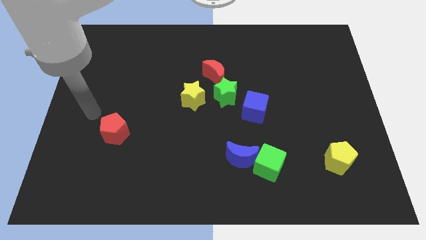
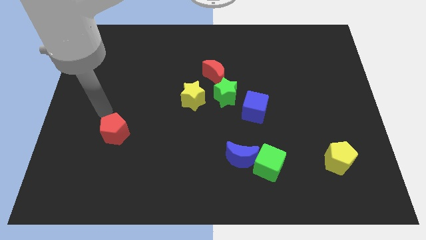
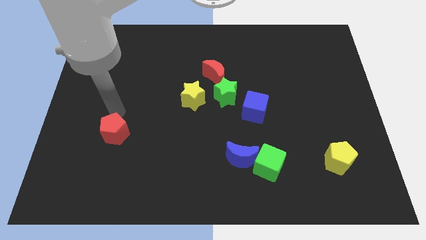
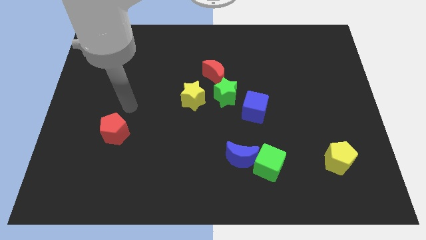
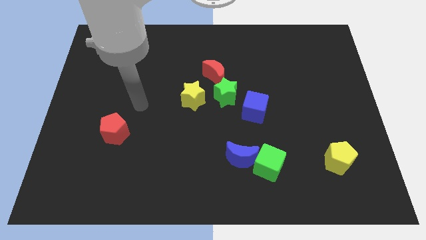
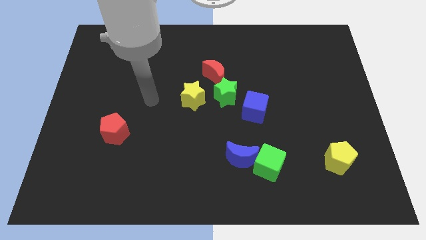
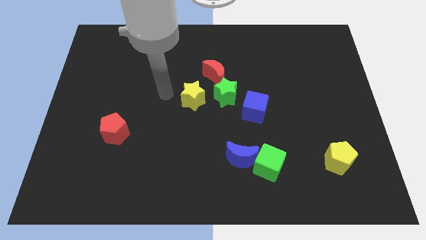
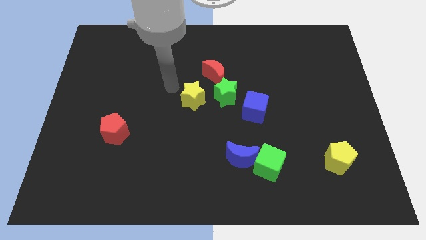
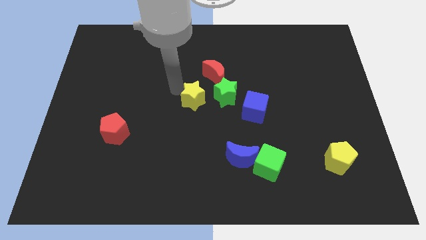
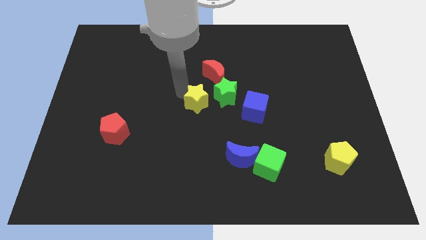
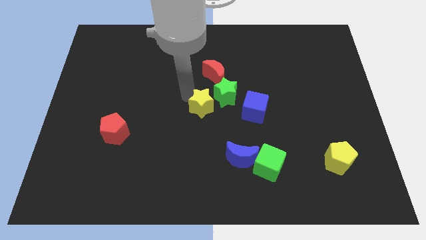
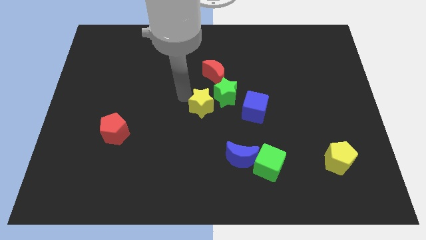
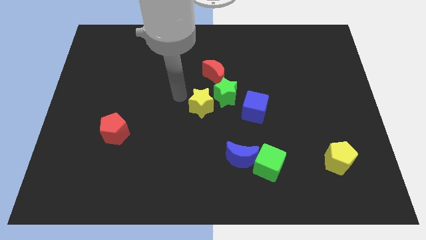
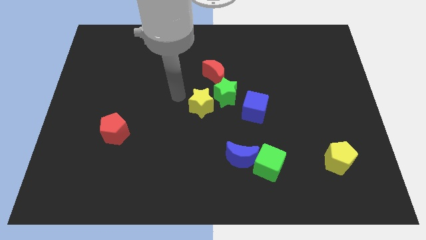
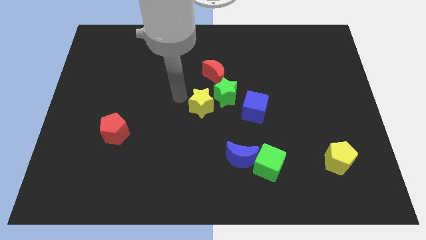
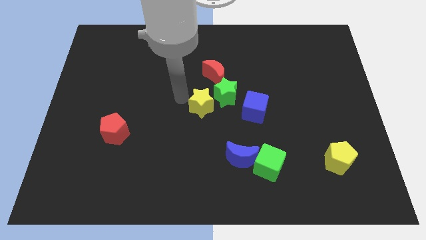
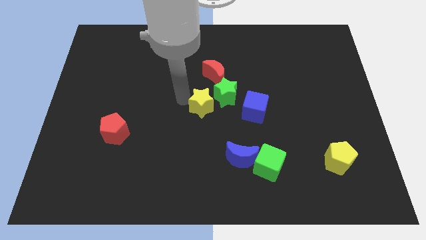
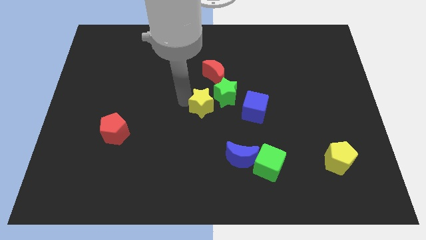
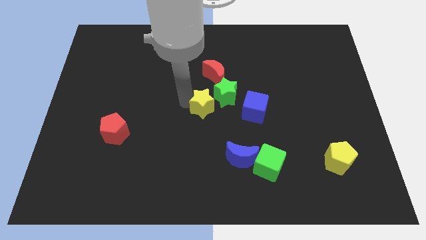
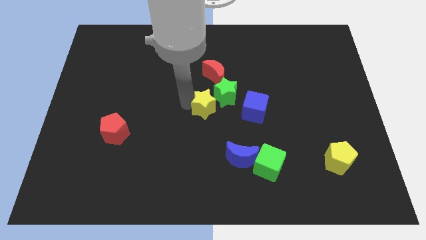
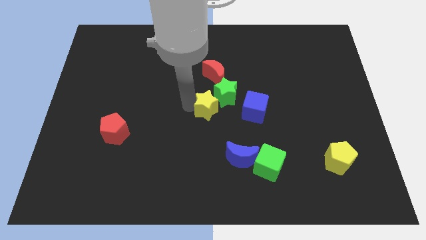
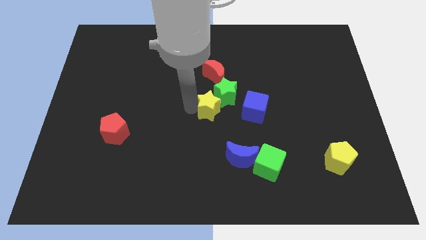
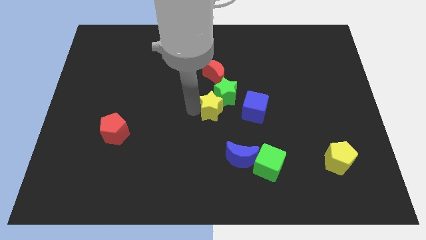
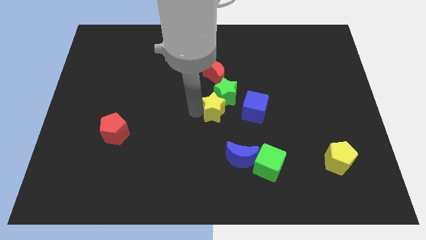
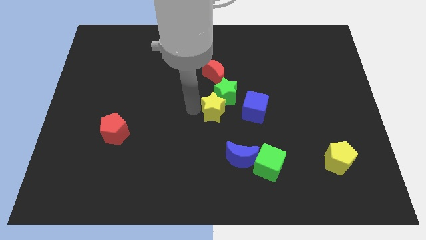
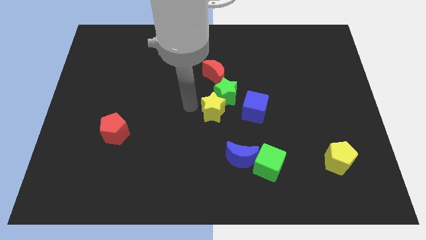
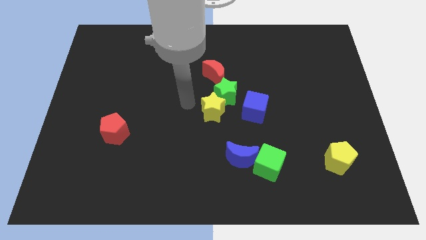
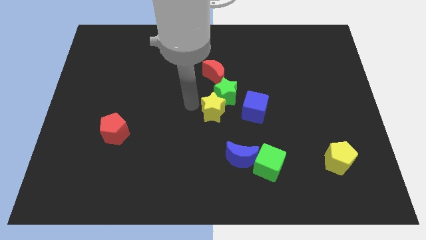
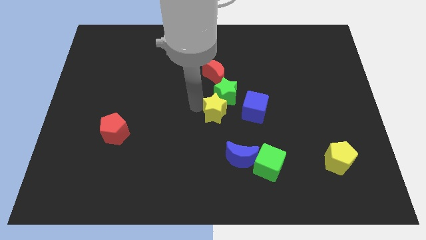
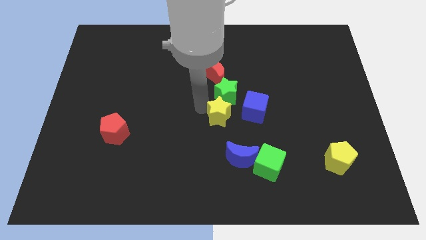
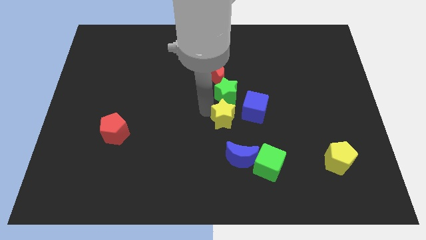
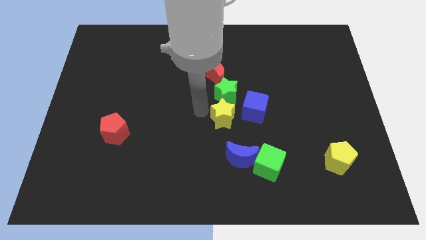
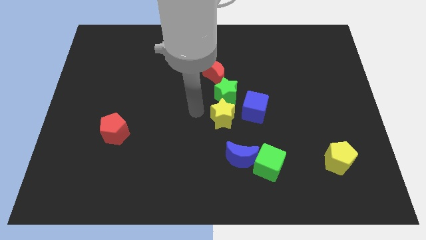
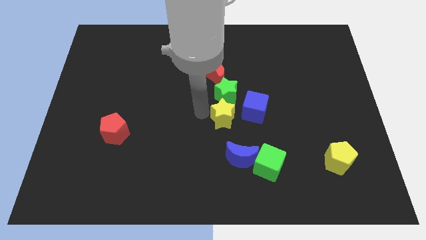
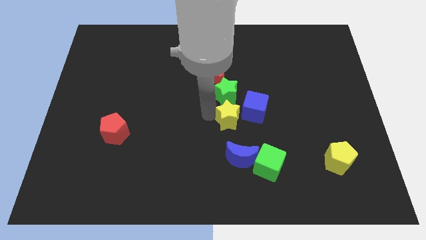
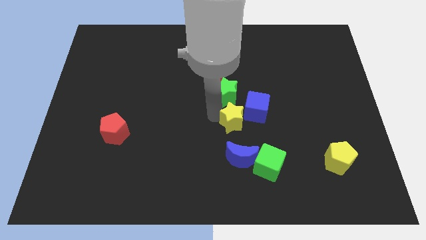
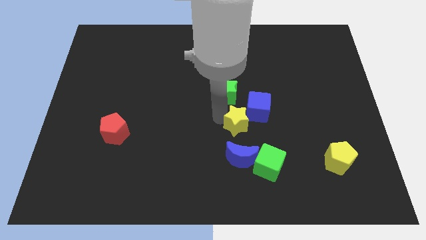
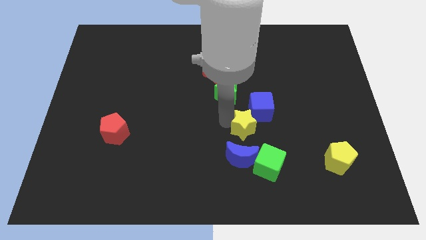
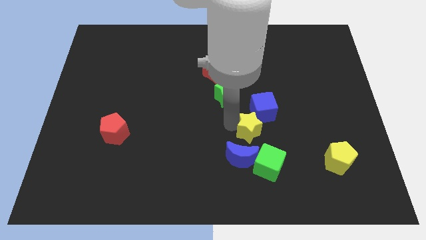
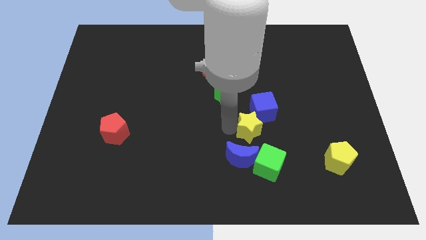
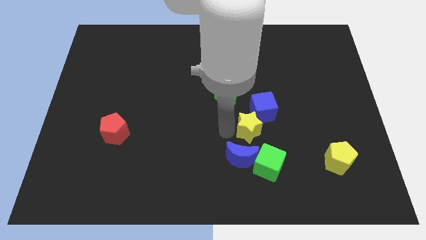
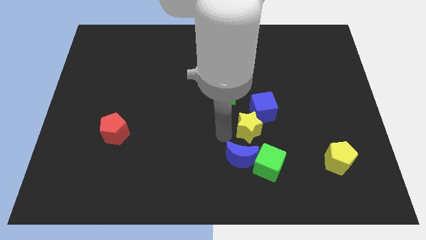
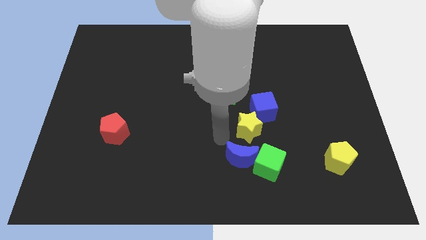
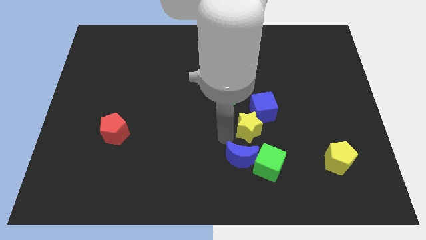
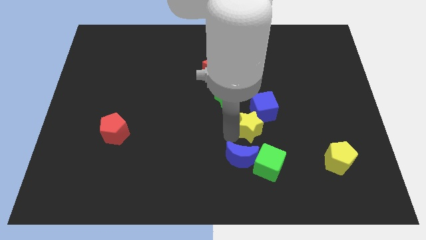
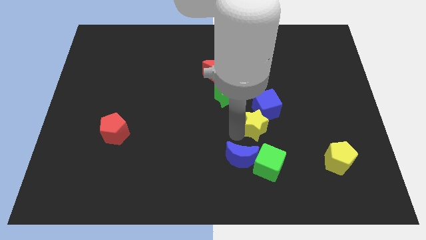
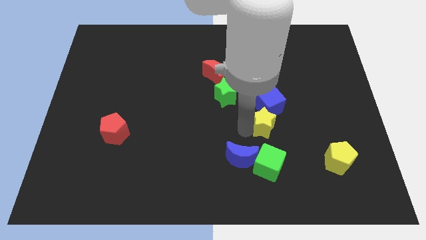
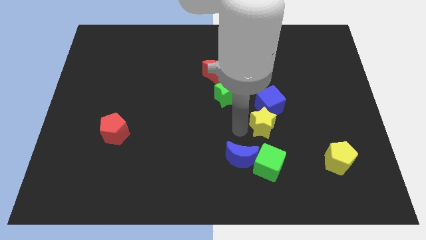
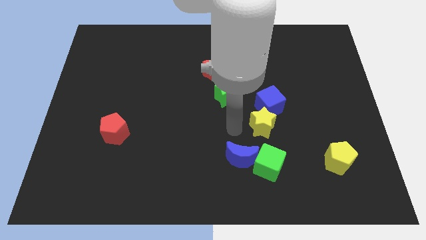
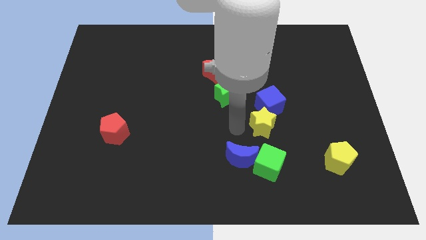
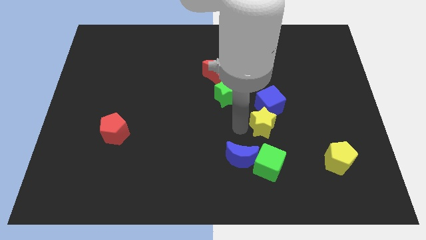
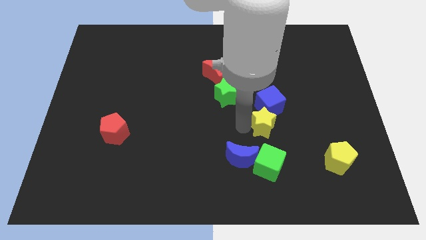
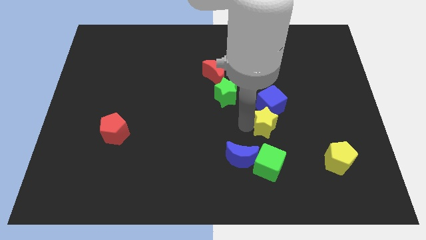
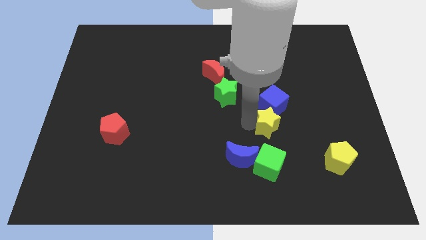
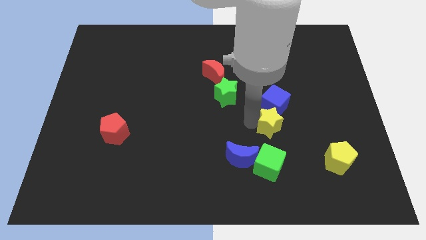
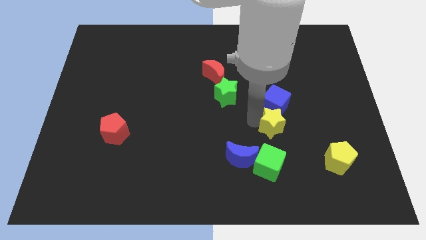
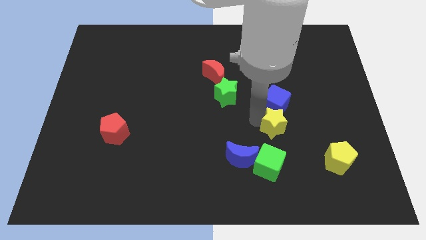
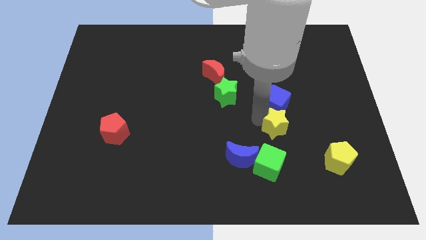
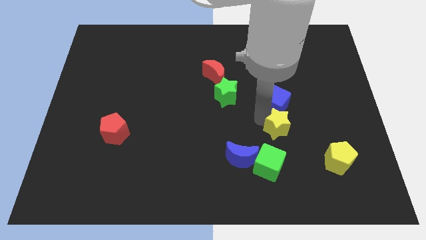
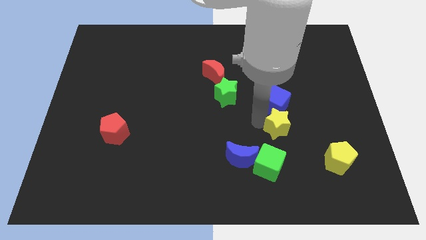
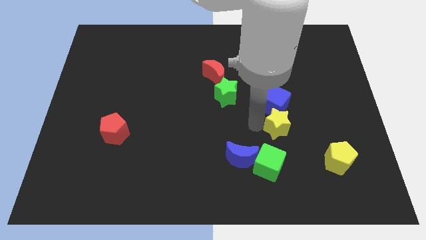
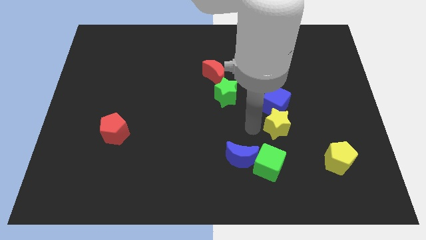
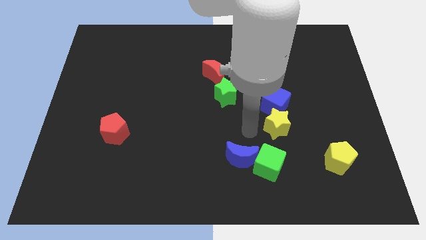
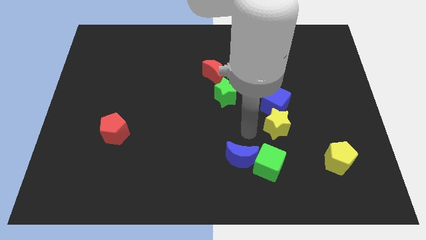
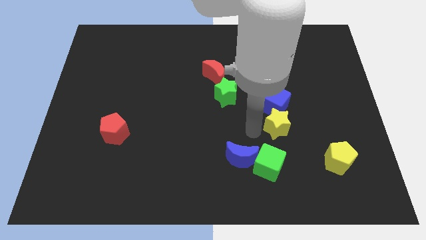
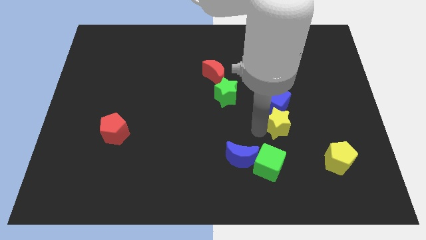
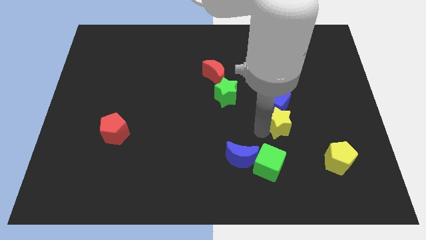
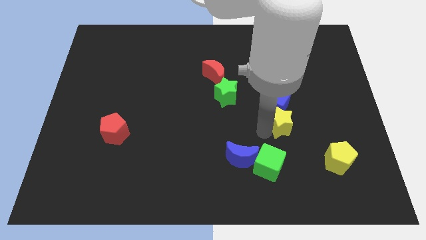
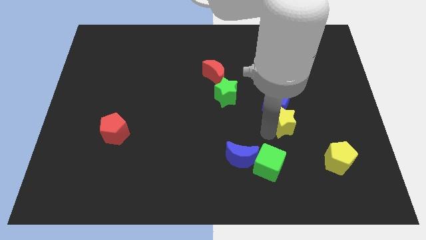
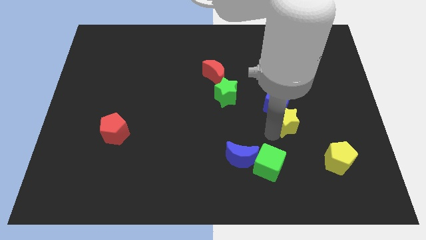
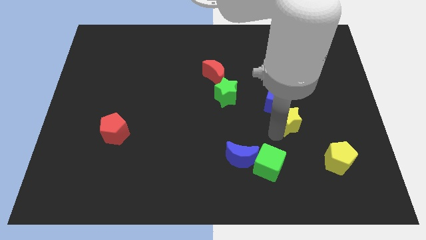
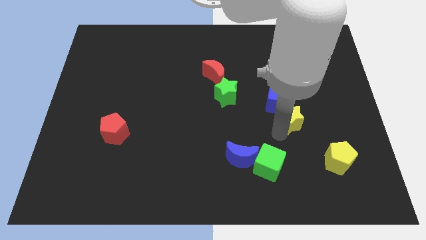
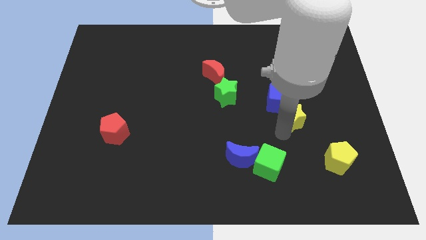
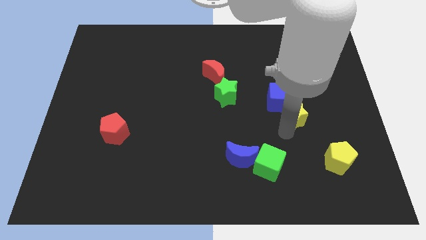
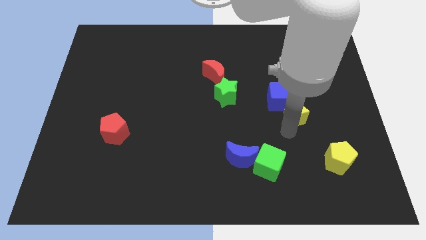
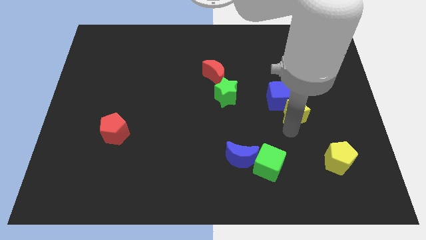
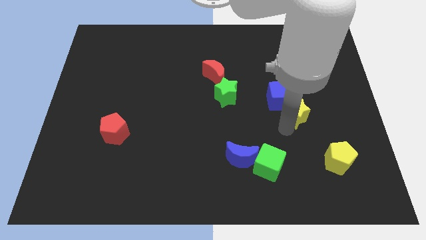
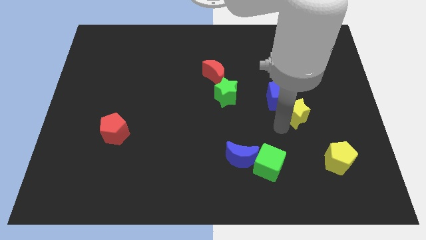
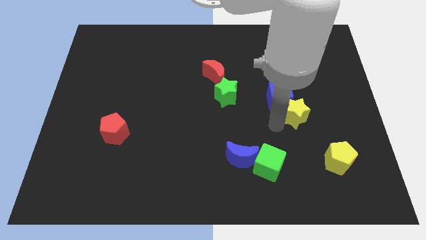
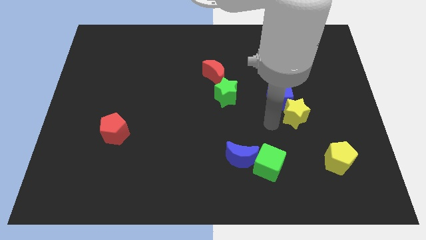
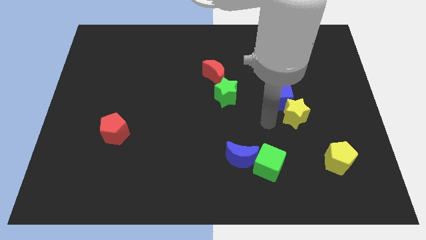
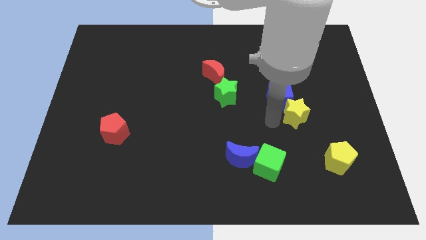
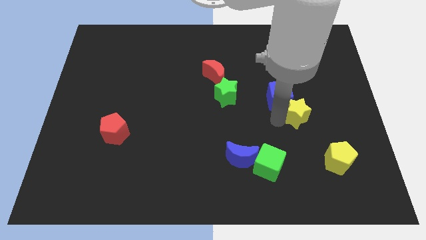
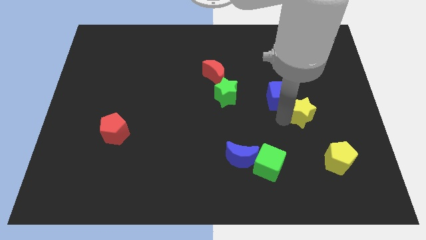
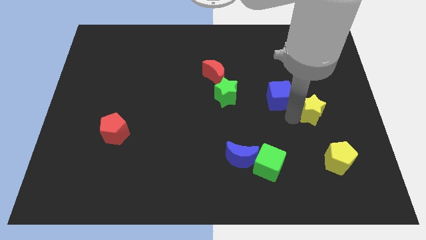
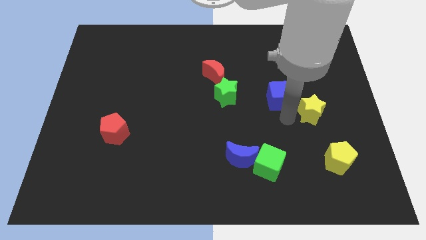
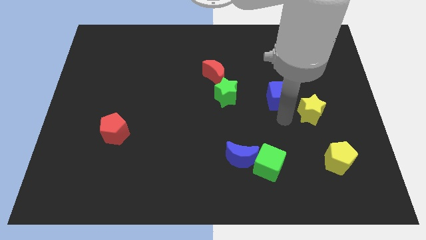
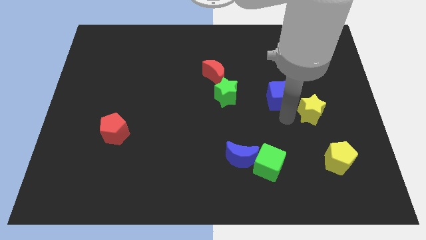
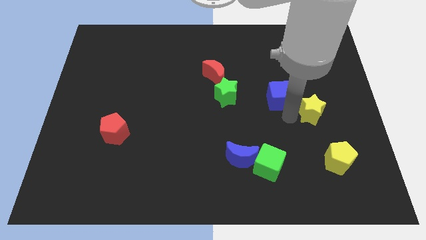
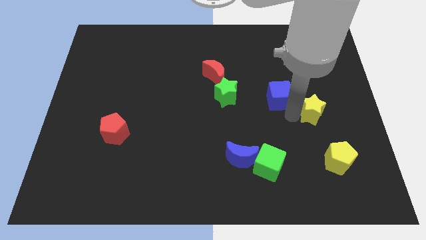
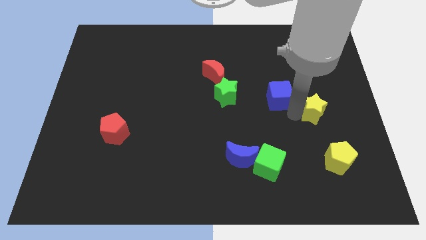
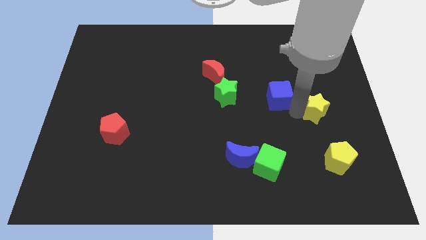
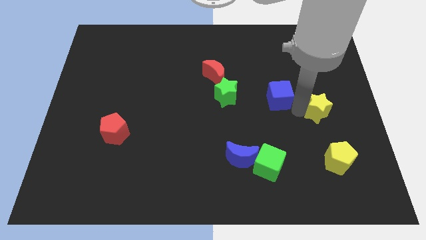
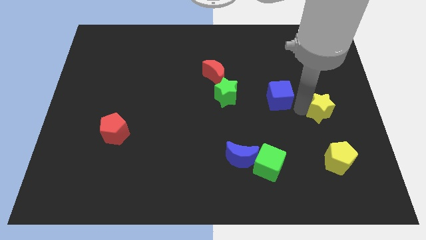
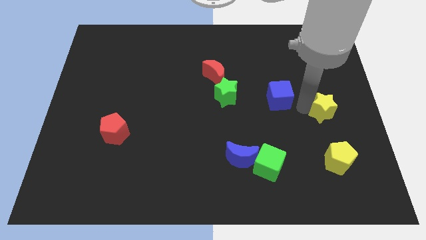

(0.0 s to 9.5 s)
slide the yellow star to the right side
